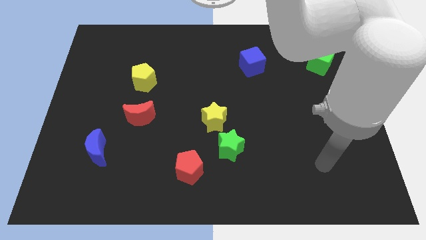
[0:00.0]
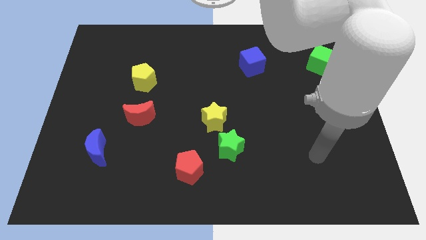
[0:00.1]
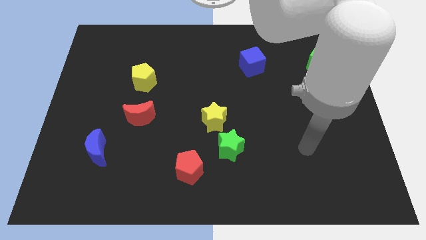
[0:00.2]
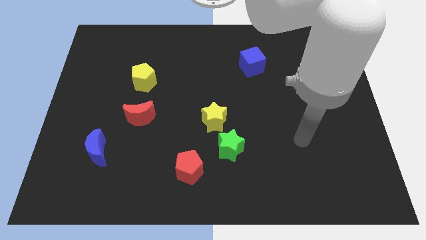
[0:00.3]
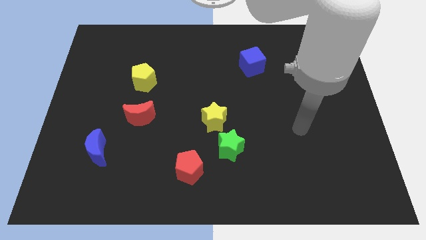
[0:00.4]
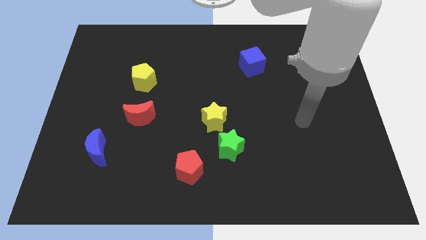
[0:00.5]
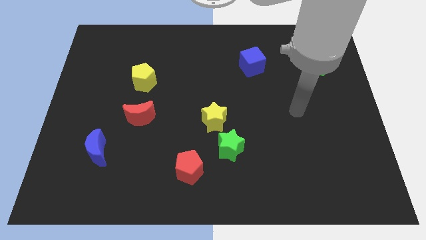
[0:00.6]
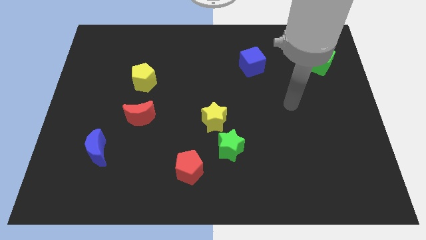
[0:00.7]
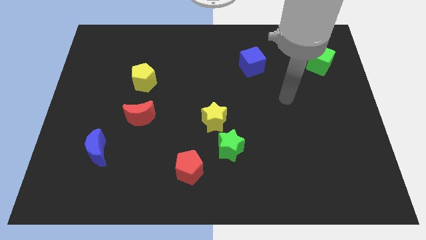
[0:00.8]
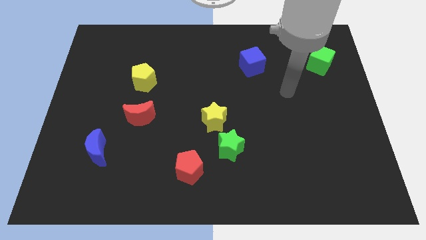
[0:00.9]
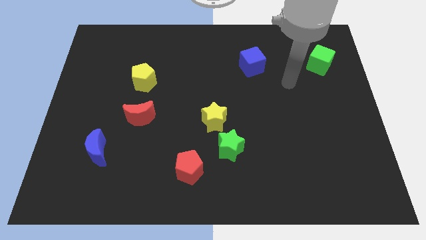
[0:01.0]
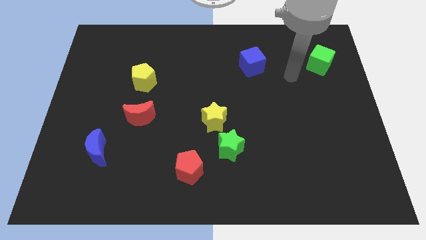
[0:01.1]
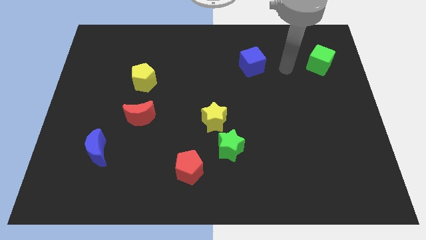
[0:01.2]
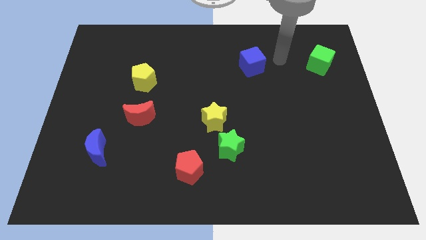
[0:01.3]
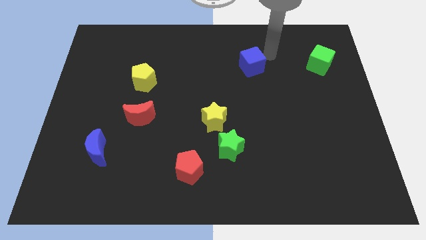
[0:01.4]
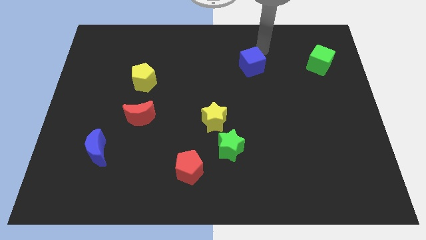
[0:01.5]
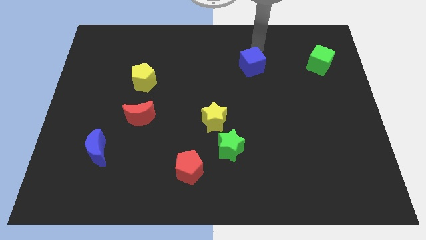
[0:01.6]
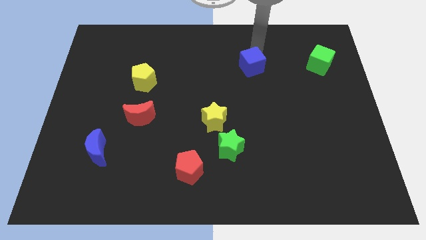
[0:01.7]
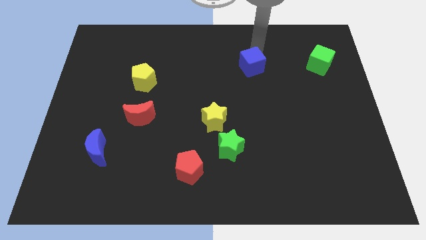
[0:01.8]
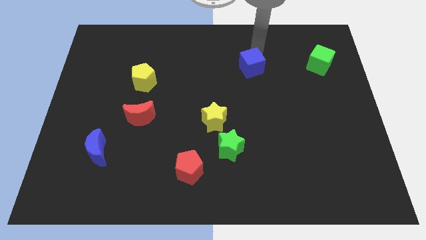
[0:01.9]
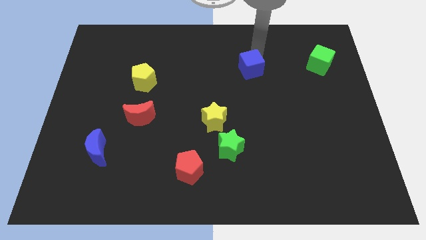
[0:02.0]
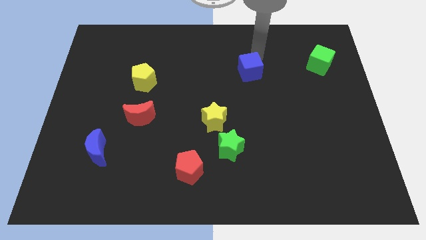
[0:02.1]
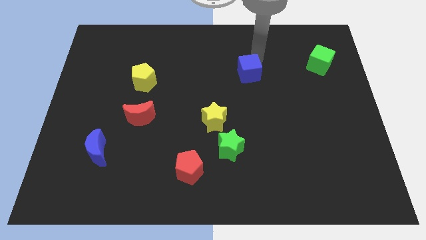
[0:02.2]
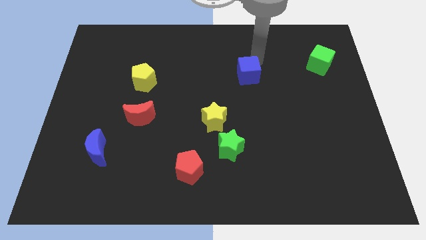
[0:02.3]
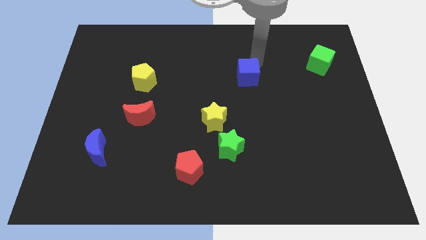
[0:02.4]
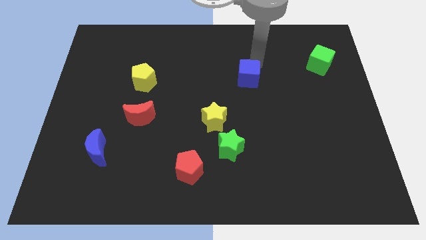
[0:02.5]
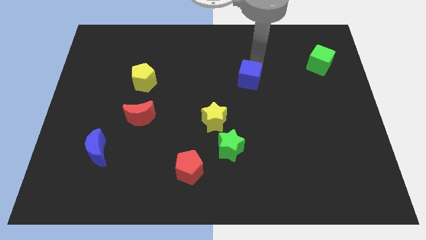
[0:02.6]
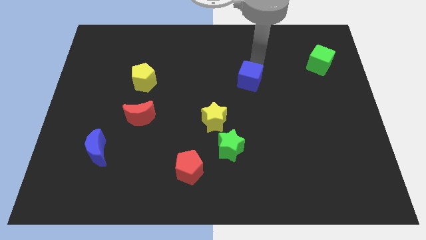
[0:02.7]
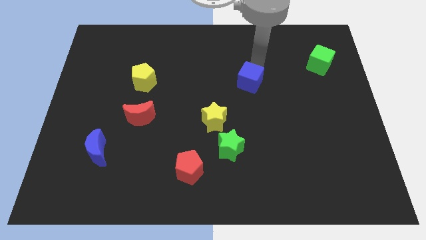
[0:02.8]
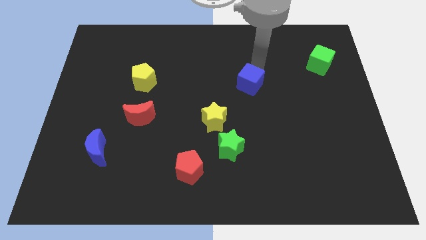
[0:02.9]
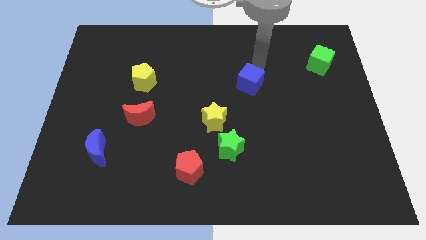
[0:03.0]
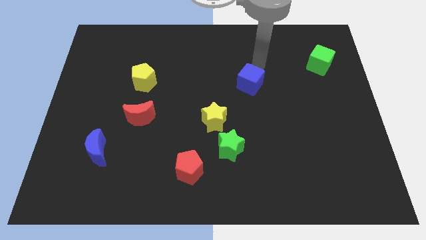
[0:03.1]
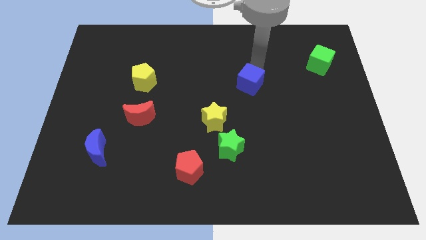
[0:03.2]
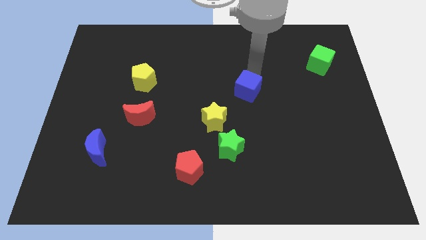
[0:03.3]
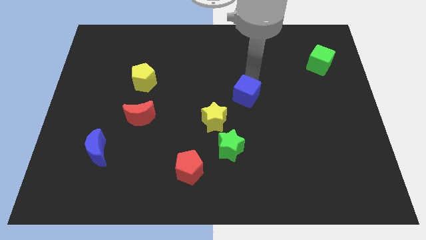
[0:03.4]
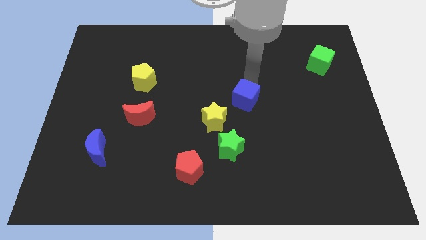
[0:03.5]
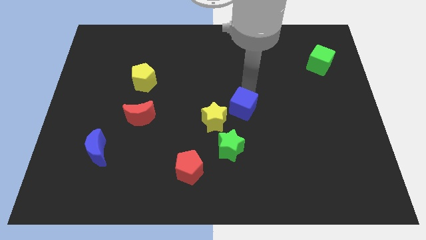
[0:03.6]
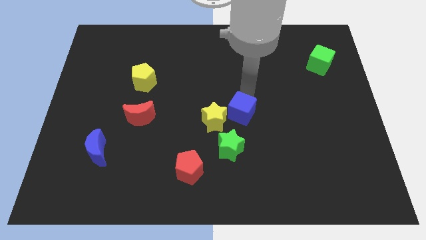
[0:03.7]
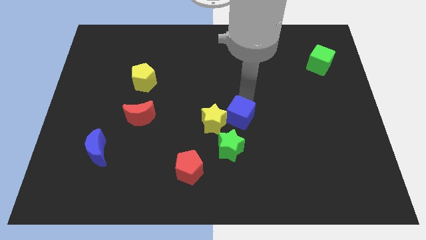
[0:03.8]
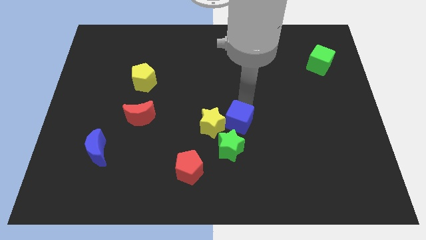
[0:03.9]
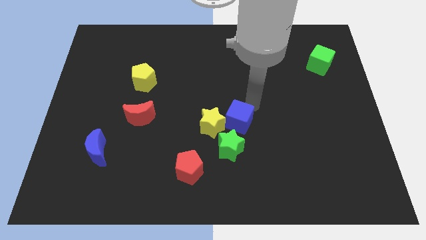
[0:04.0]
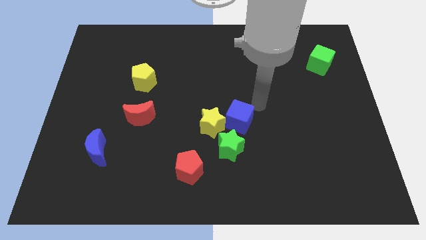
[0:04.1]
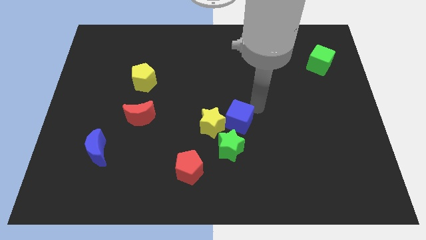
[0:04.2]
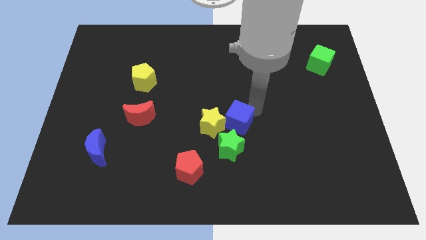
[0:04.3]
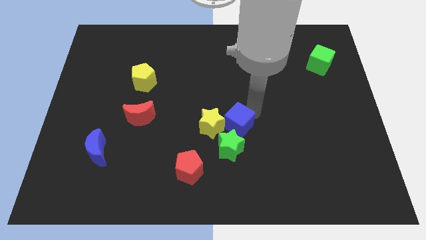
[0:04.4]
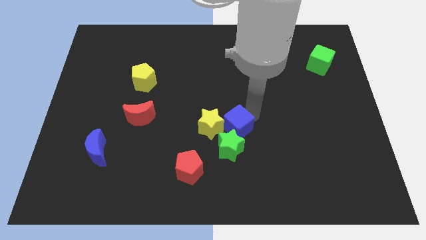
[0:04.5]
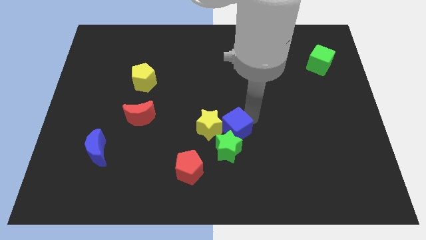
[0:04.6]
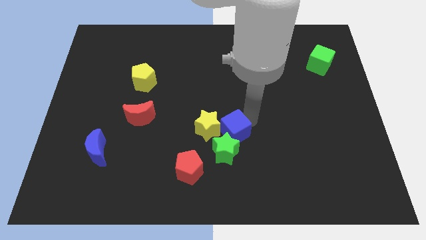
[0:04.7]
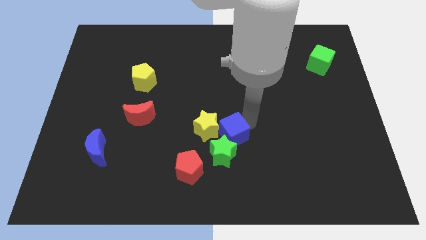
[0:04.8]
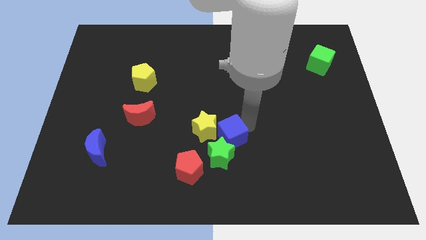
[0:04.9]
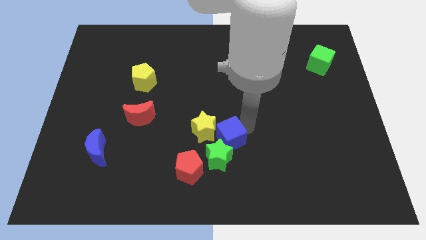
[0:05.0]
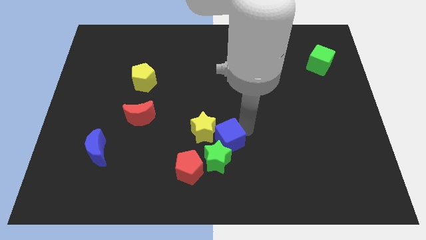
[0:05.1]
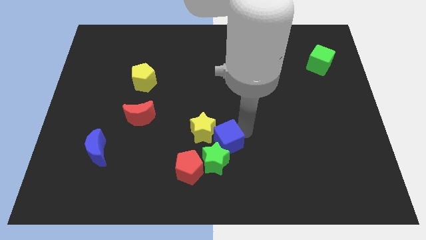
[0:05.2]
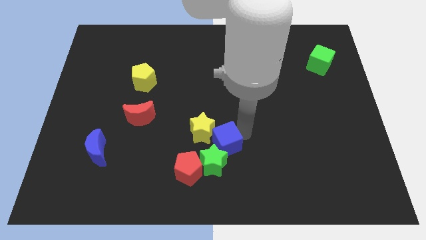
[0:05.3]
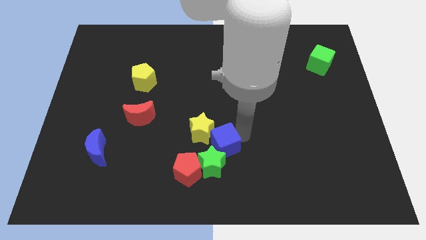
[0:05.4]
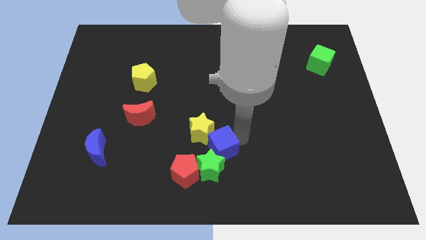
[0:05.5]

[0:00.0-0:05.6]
push the blue cube below the yellow star
